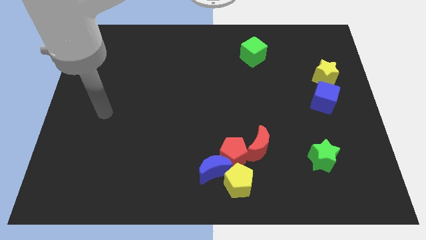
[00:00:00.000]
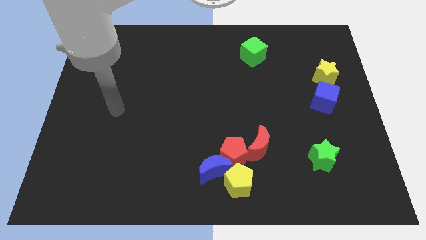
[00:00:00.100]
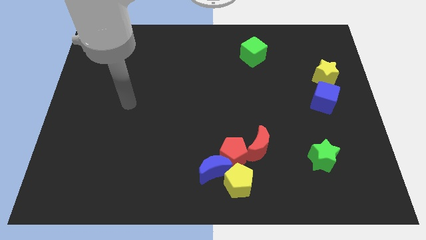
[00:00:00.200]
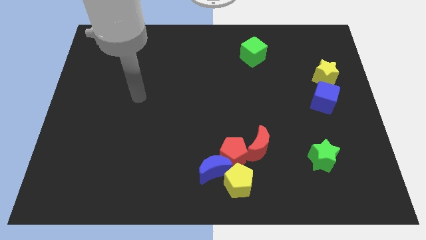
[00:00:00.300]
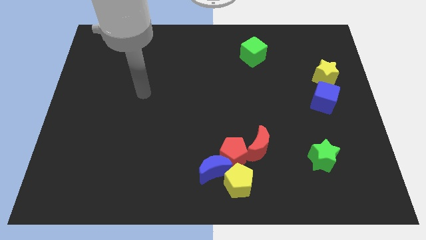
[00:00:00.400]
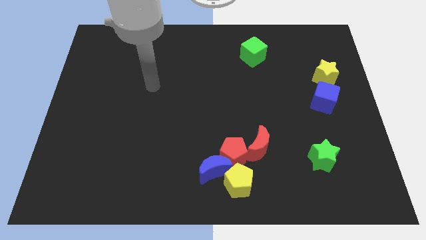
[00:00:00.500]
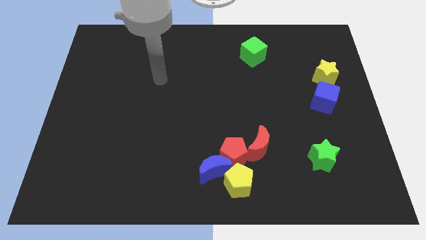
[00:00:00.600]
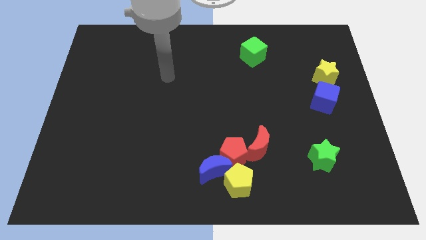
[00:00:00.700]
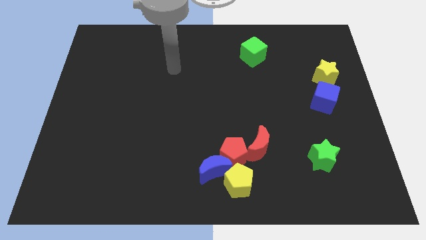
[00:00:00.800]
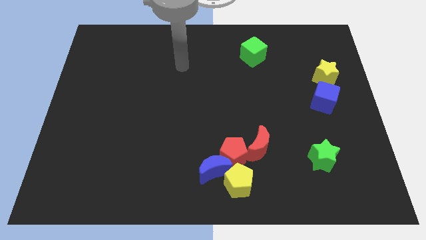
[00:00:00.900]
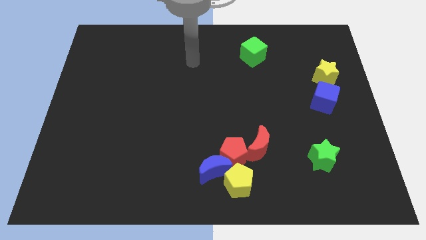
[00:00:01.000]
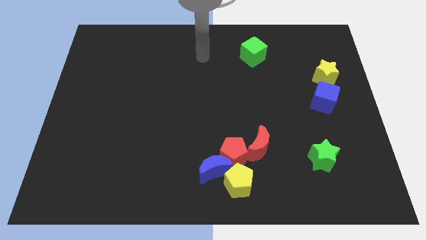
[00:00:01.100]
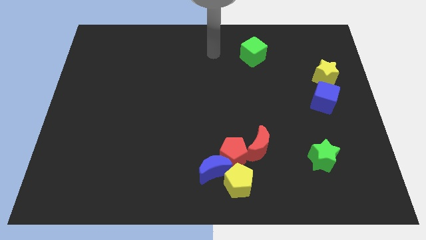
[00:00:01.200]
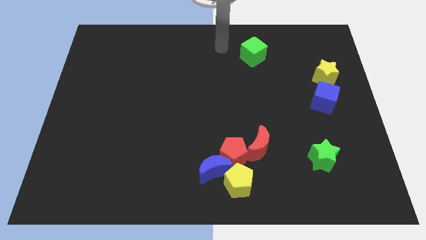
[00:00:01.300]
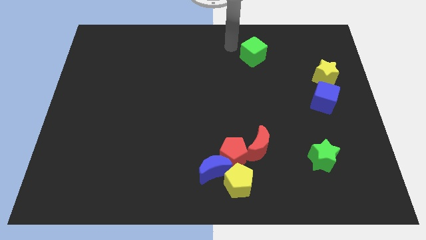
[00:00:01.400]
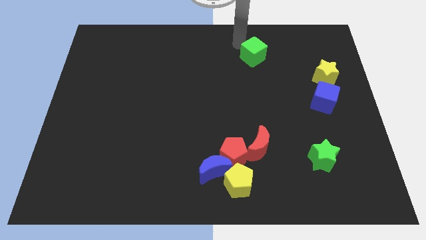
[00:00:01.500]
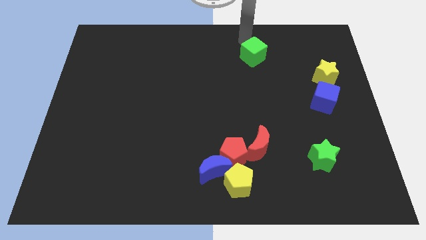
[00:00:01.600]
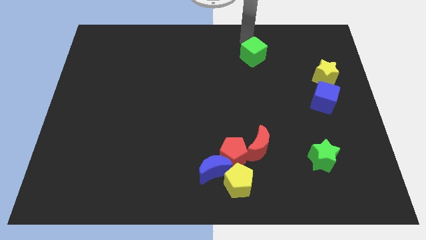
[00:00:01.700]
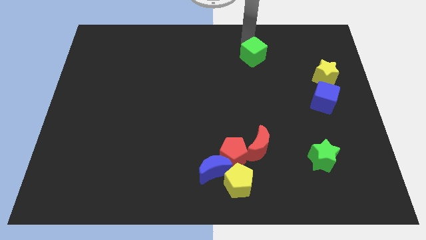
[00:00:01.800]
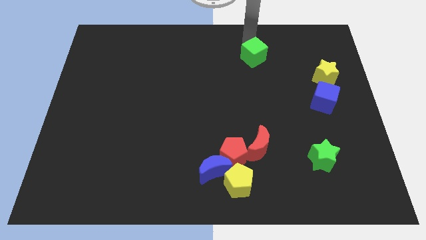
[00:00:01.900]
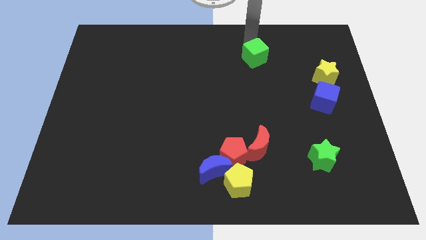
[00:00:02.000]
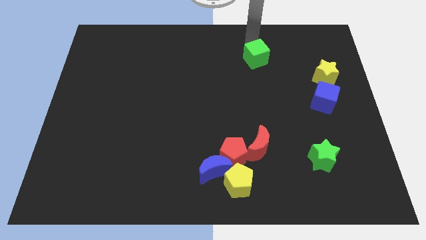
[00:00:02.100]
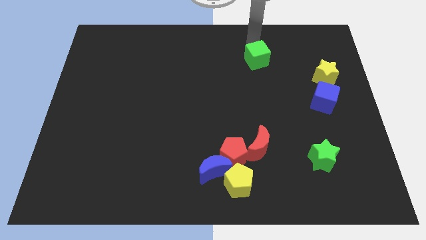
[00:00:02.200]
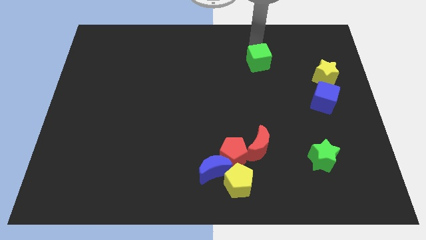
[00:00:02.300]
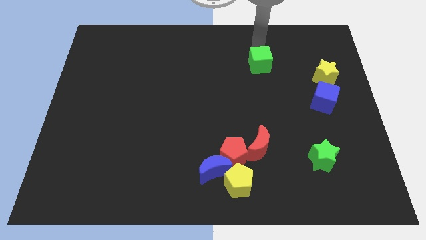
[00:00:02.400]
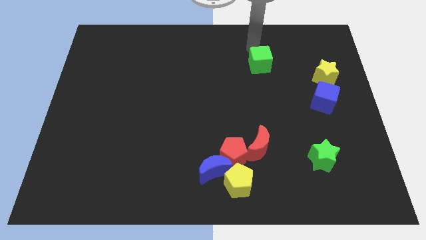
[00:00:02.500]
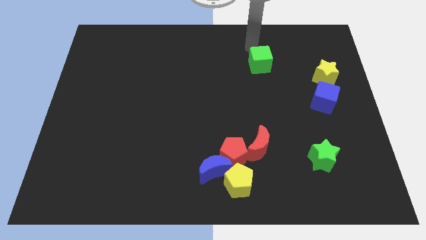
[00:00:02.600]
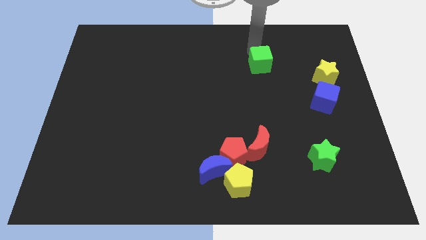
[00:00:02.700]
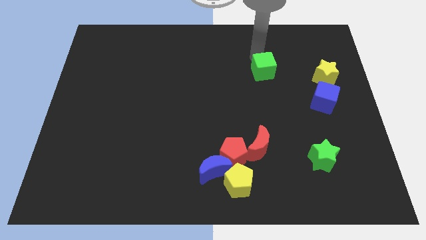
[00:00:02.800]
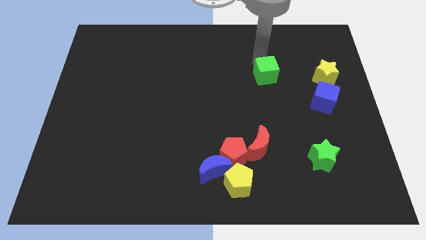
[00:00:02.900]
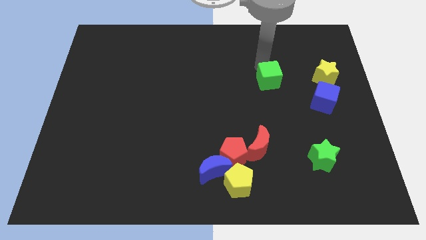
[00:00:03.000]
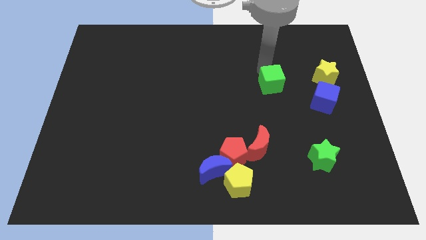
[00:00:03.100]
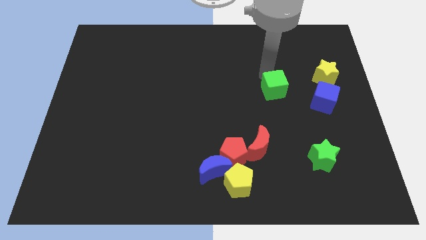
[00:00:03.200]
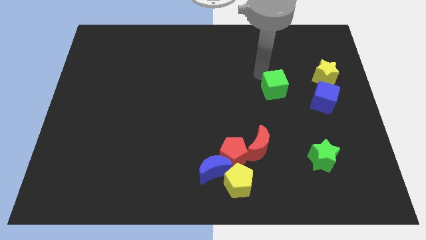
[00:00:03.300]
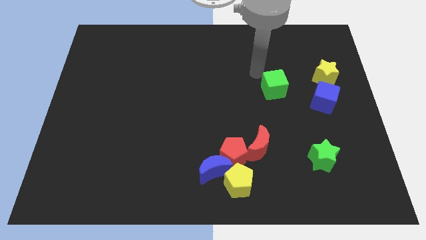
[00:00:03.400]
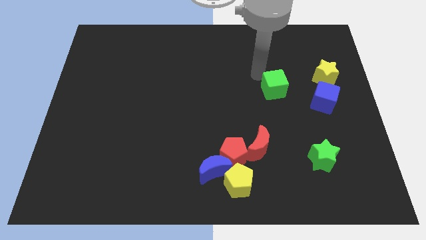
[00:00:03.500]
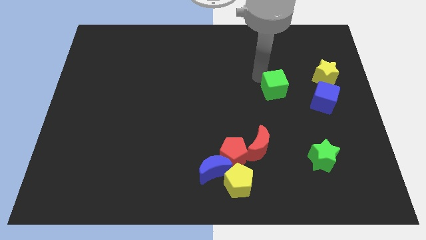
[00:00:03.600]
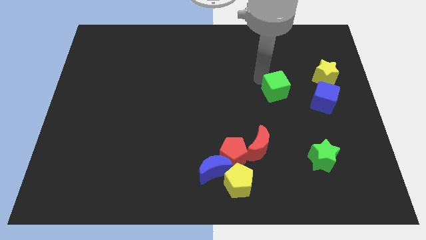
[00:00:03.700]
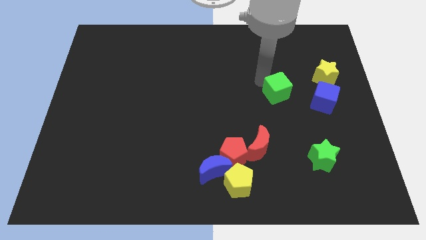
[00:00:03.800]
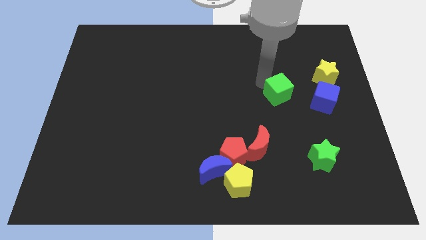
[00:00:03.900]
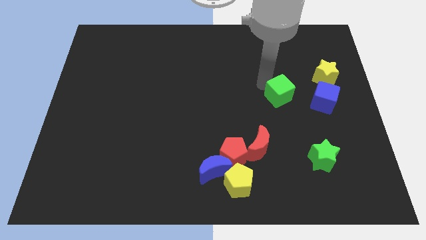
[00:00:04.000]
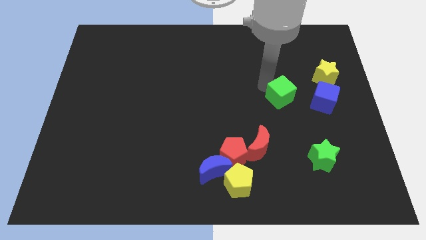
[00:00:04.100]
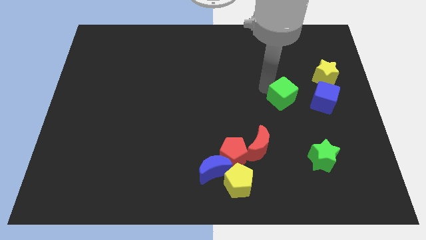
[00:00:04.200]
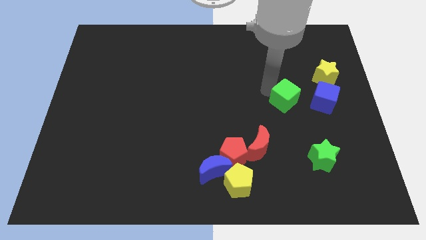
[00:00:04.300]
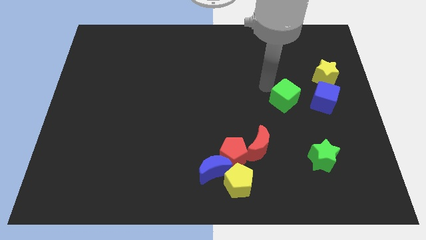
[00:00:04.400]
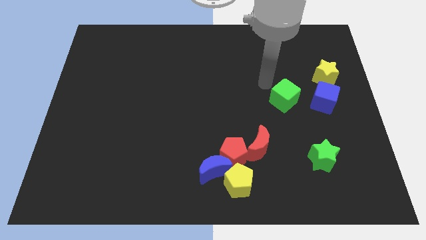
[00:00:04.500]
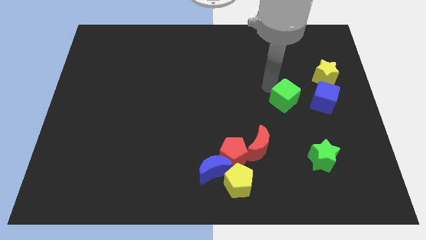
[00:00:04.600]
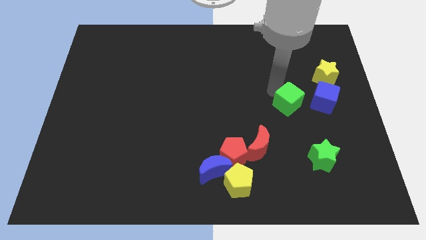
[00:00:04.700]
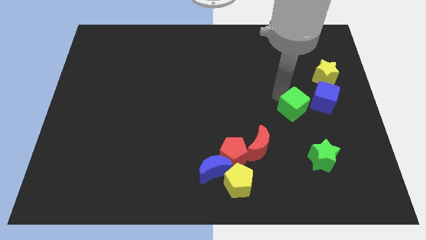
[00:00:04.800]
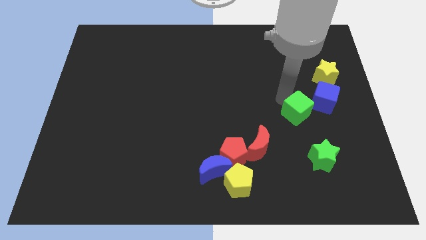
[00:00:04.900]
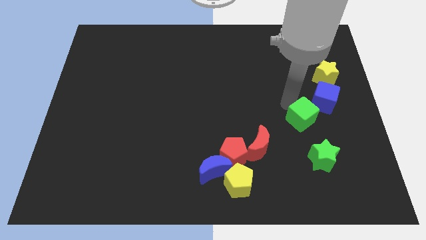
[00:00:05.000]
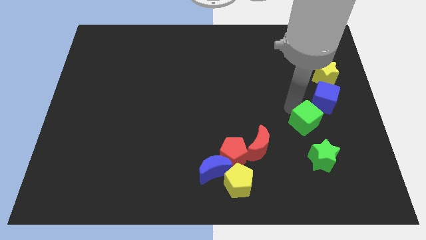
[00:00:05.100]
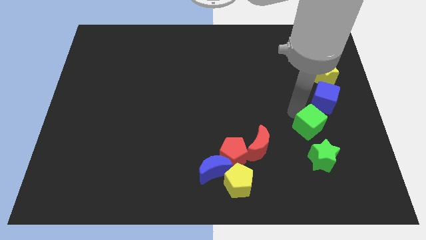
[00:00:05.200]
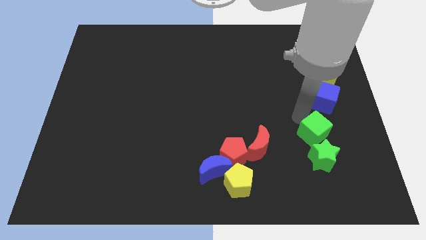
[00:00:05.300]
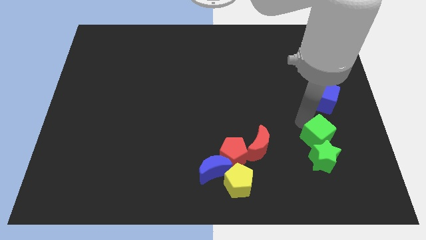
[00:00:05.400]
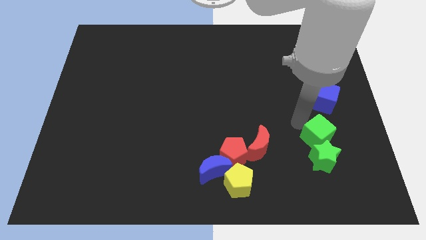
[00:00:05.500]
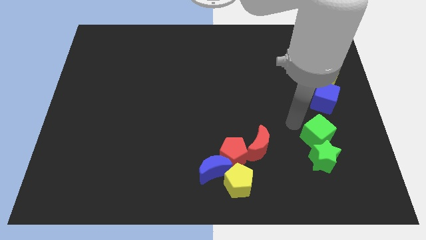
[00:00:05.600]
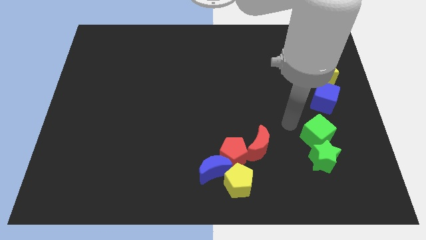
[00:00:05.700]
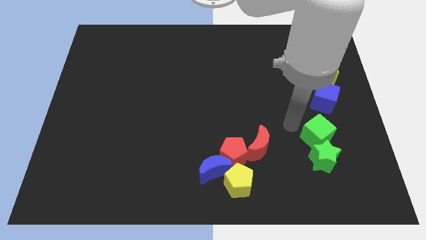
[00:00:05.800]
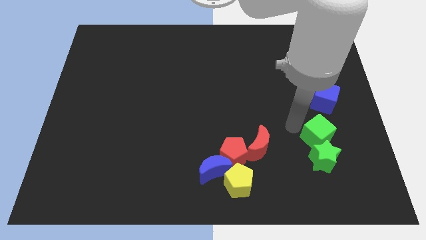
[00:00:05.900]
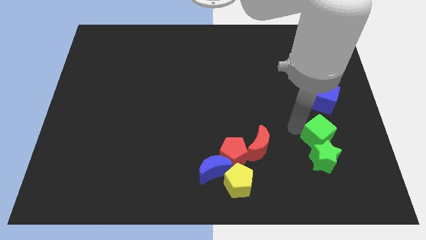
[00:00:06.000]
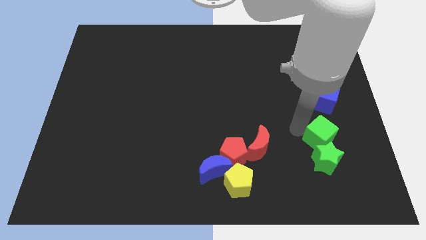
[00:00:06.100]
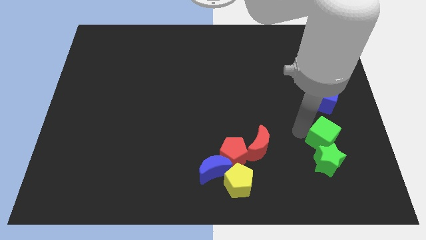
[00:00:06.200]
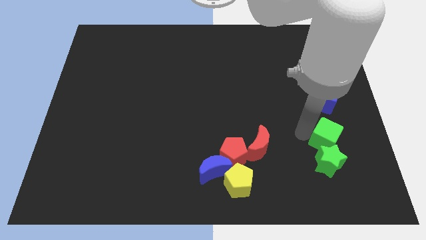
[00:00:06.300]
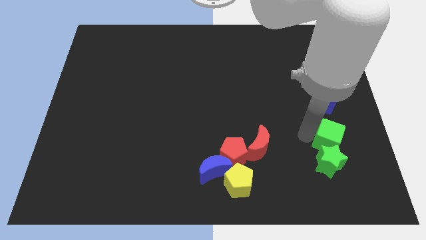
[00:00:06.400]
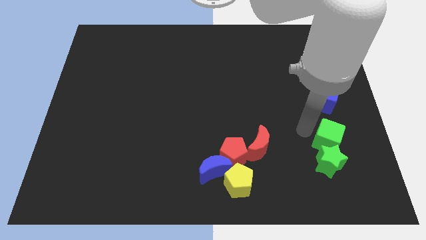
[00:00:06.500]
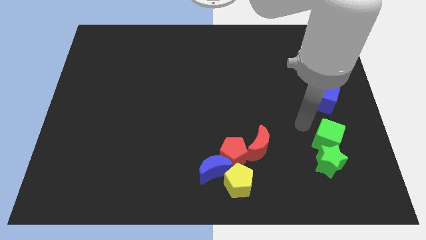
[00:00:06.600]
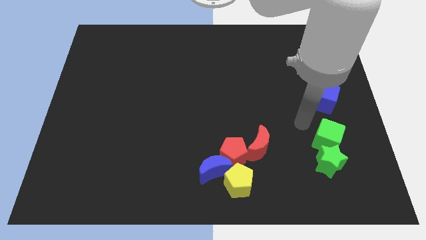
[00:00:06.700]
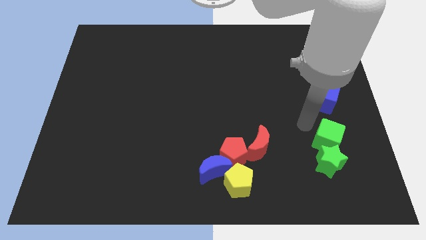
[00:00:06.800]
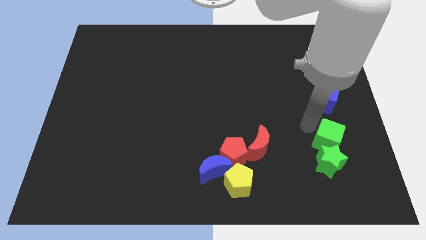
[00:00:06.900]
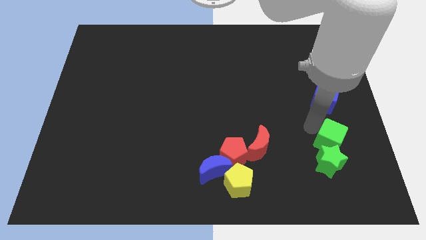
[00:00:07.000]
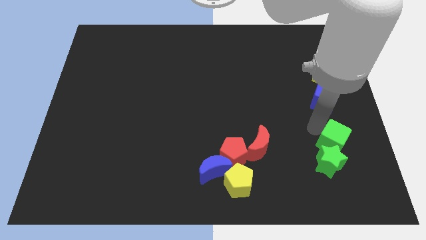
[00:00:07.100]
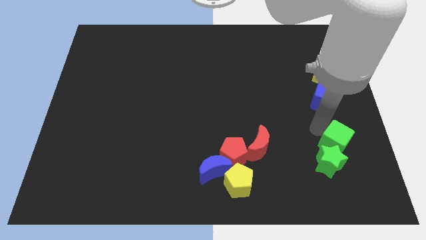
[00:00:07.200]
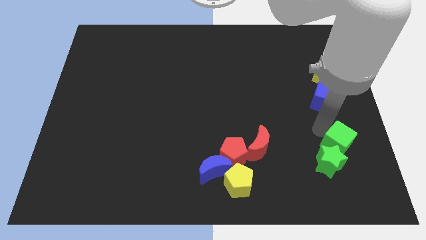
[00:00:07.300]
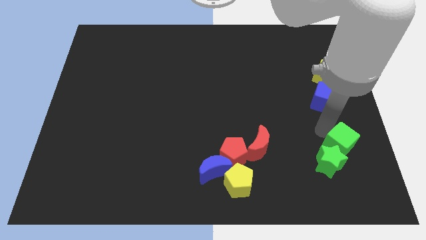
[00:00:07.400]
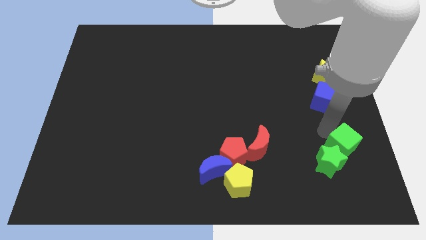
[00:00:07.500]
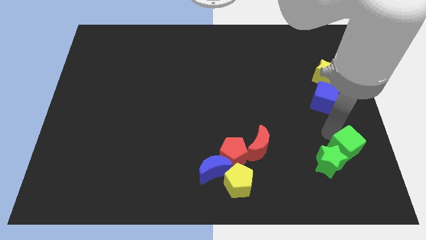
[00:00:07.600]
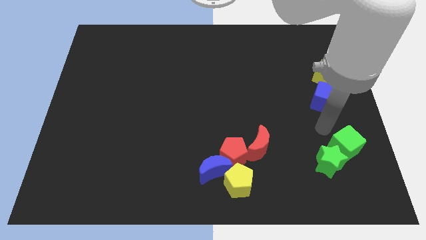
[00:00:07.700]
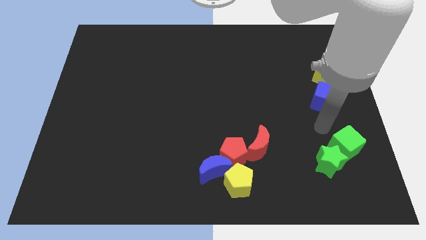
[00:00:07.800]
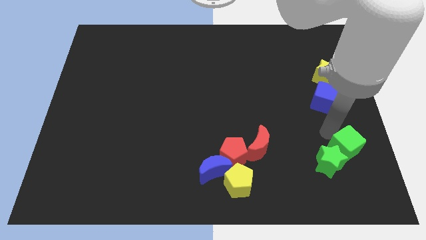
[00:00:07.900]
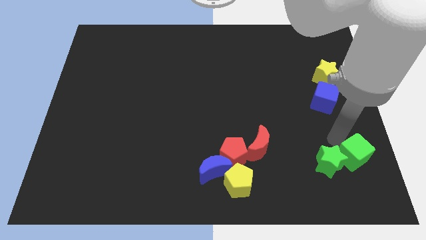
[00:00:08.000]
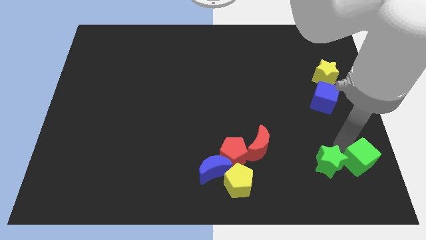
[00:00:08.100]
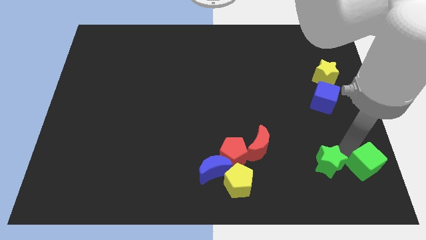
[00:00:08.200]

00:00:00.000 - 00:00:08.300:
slide the green cube to the lower right corner
